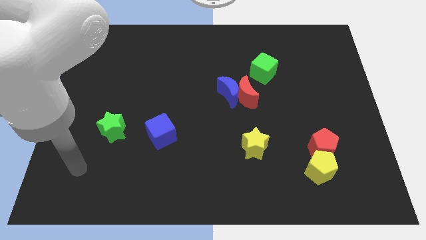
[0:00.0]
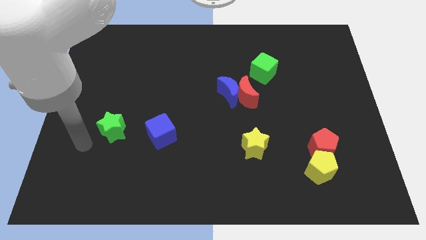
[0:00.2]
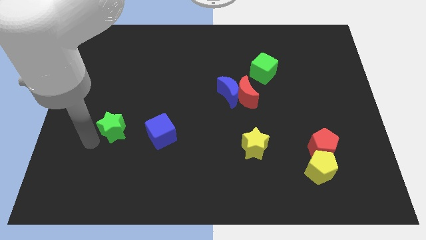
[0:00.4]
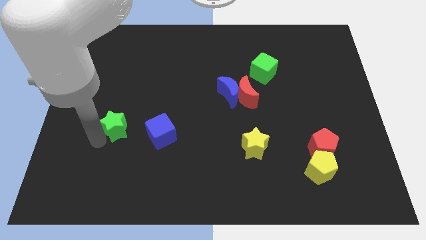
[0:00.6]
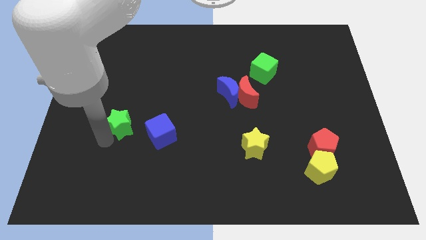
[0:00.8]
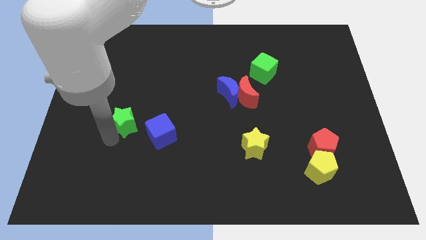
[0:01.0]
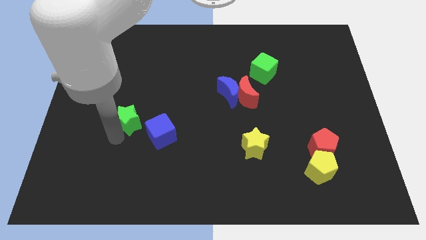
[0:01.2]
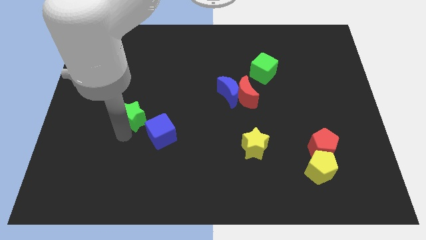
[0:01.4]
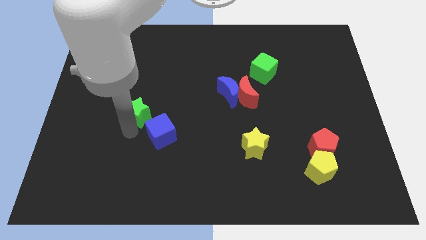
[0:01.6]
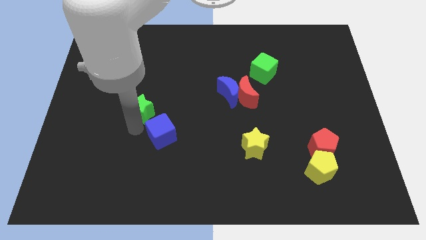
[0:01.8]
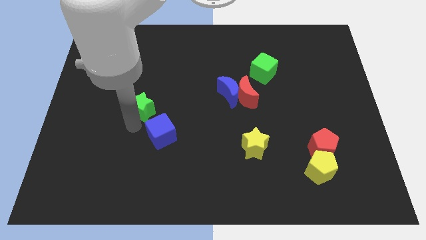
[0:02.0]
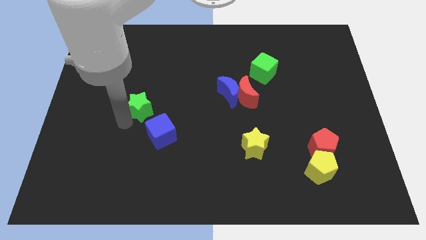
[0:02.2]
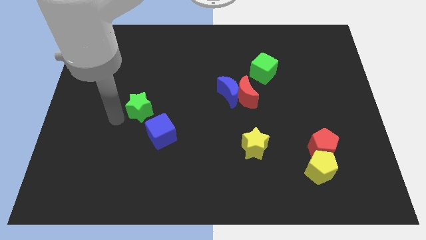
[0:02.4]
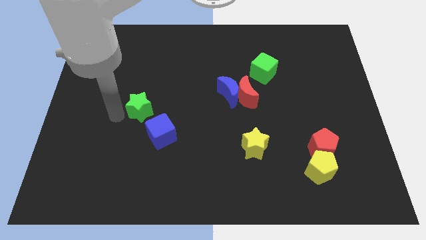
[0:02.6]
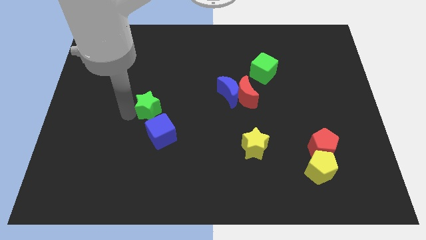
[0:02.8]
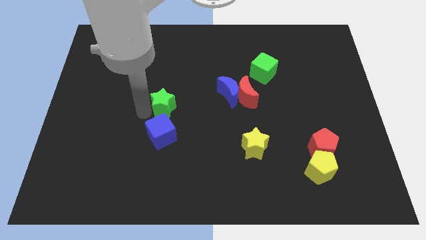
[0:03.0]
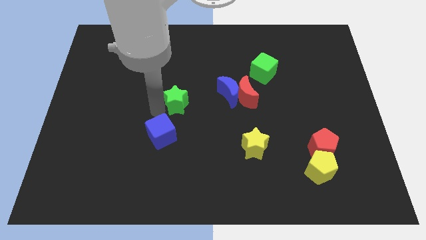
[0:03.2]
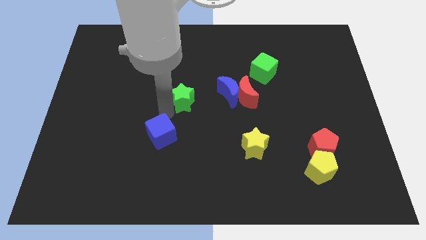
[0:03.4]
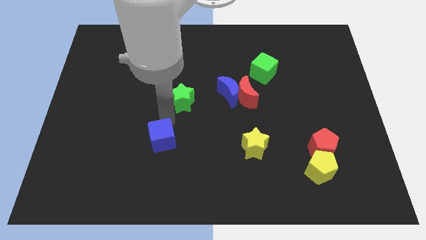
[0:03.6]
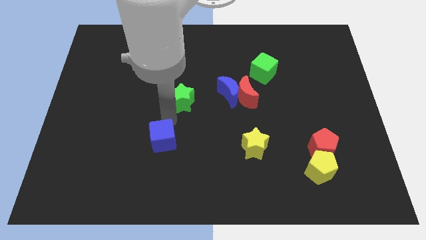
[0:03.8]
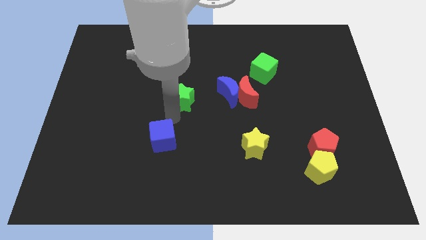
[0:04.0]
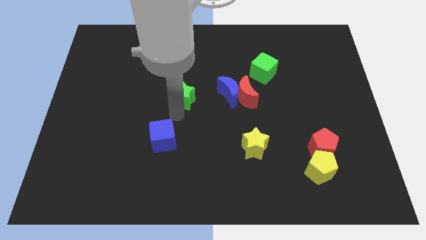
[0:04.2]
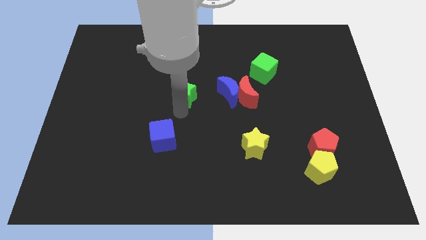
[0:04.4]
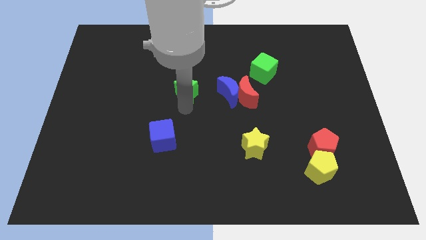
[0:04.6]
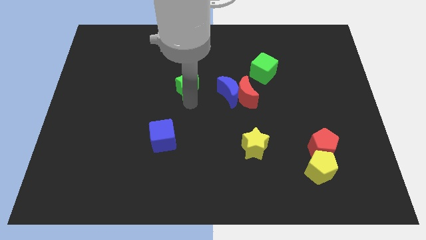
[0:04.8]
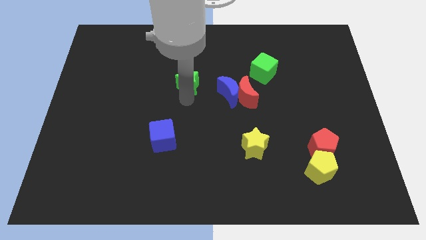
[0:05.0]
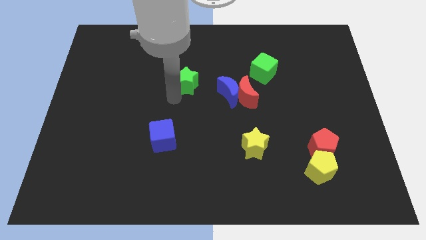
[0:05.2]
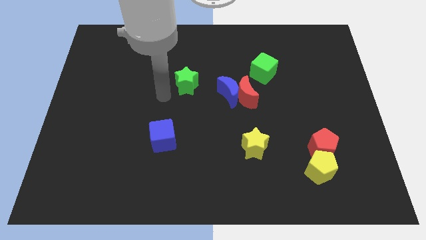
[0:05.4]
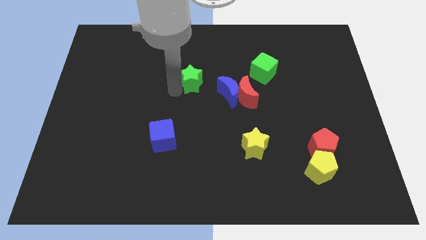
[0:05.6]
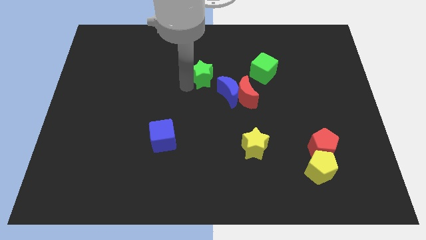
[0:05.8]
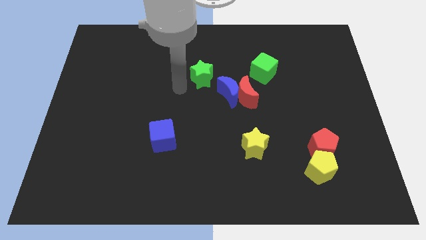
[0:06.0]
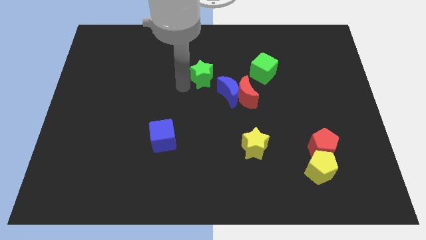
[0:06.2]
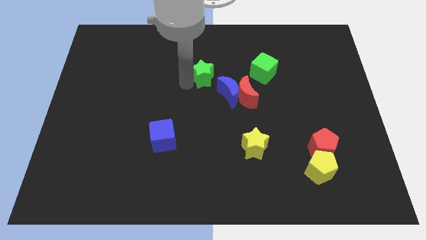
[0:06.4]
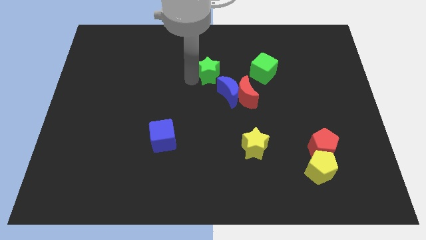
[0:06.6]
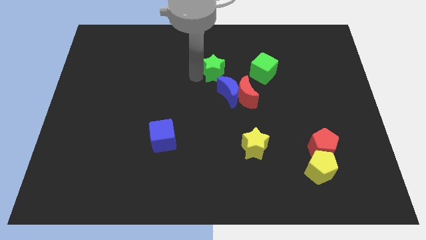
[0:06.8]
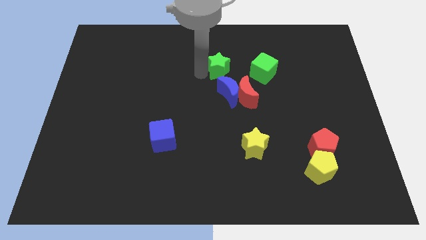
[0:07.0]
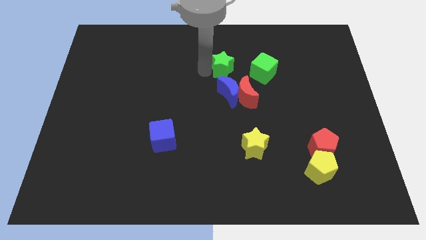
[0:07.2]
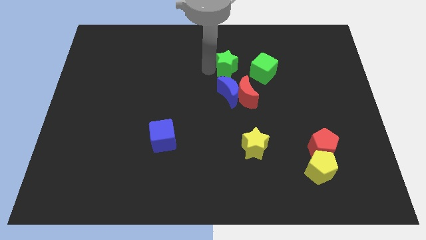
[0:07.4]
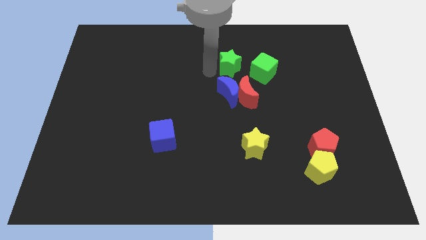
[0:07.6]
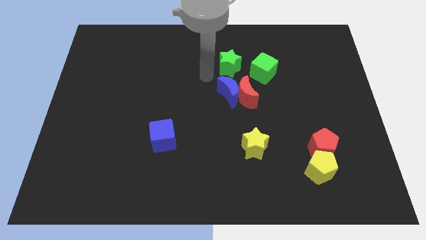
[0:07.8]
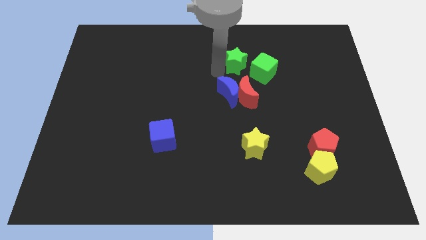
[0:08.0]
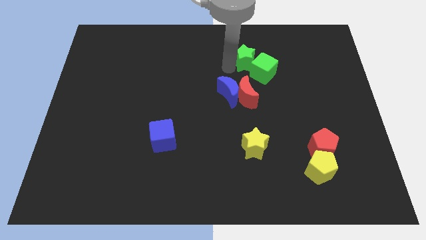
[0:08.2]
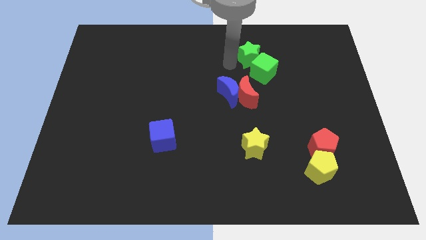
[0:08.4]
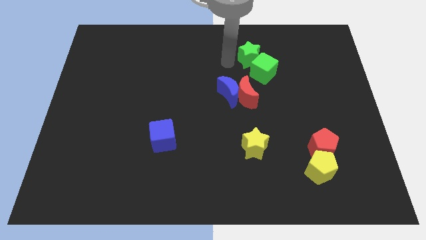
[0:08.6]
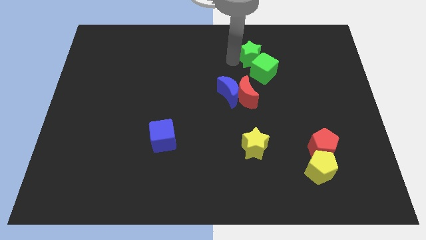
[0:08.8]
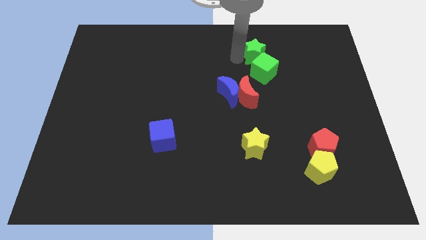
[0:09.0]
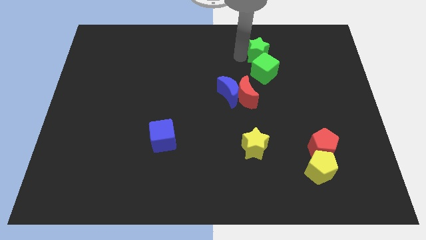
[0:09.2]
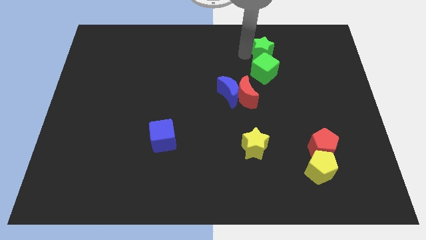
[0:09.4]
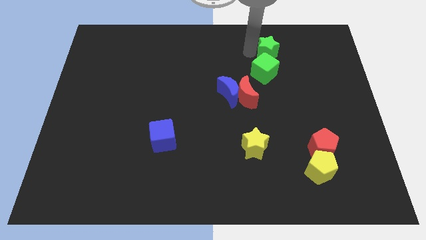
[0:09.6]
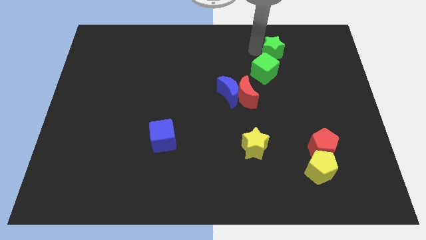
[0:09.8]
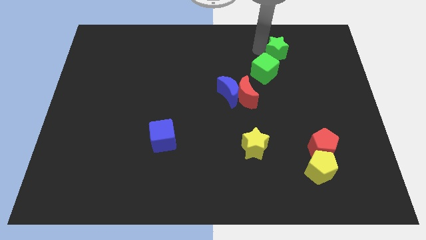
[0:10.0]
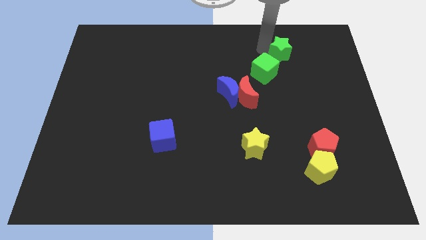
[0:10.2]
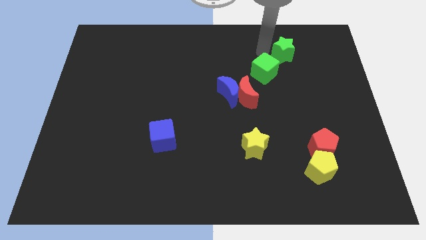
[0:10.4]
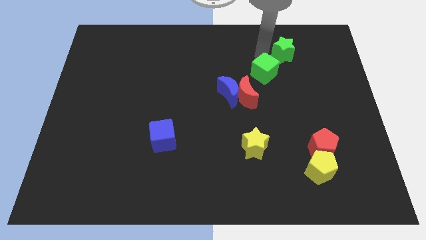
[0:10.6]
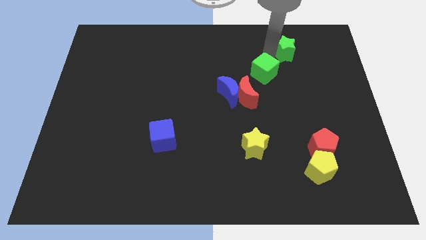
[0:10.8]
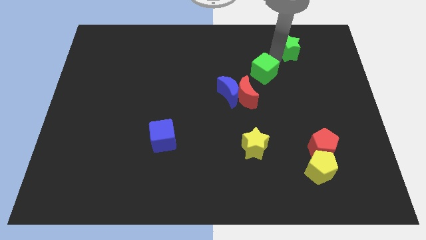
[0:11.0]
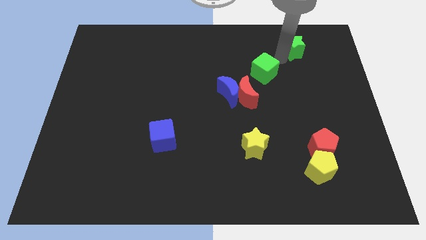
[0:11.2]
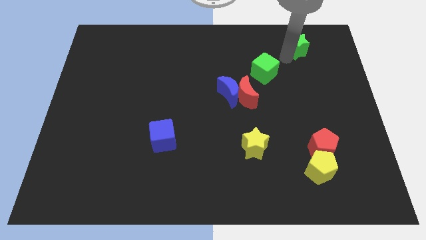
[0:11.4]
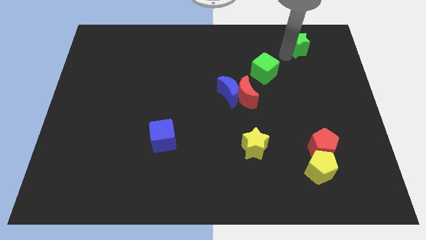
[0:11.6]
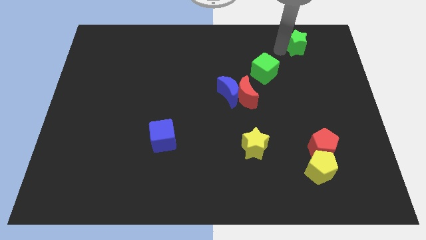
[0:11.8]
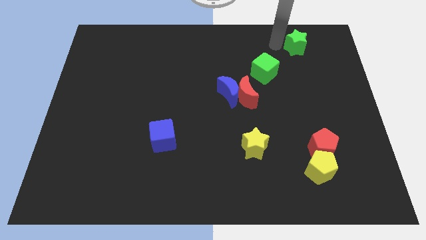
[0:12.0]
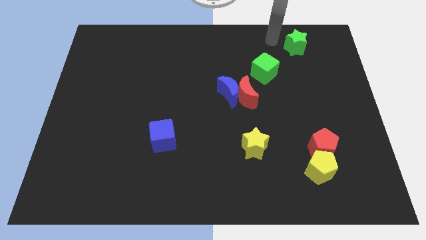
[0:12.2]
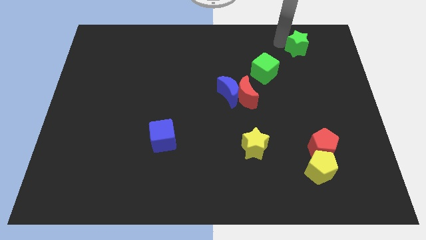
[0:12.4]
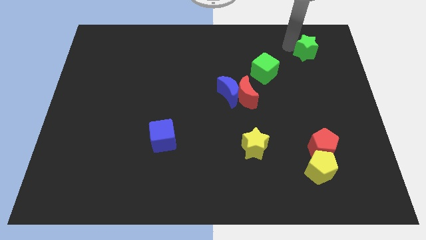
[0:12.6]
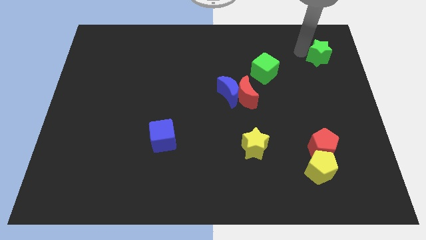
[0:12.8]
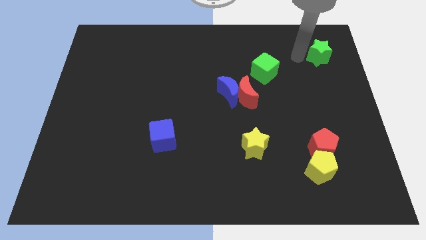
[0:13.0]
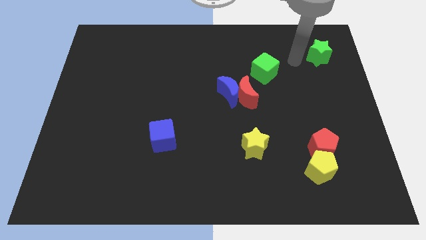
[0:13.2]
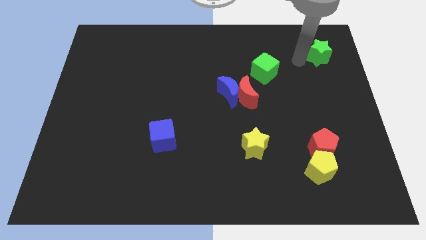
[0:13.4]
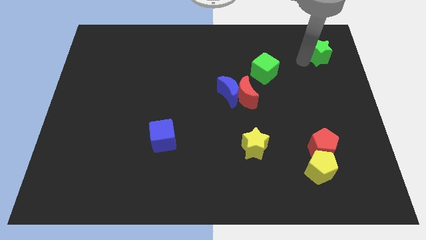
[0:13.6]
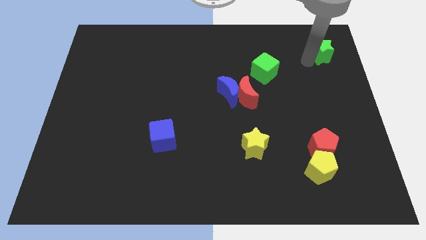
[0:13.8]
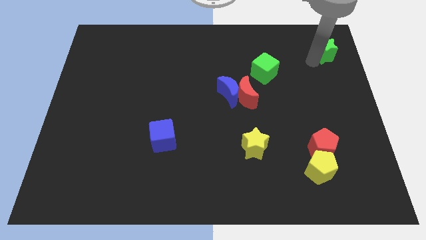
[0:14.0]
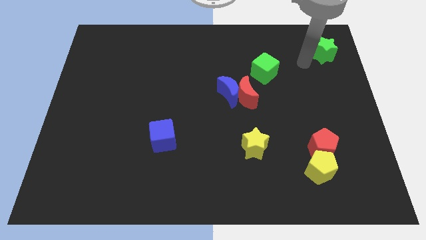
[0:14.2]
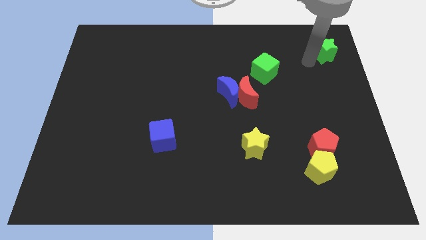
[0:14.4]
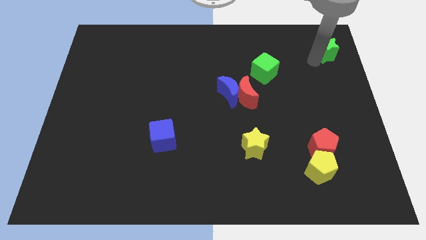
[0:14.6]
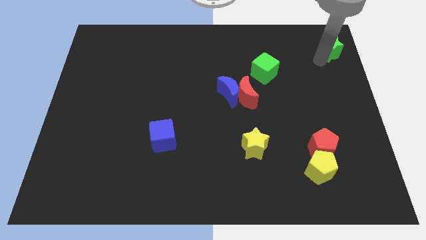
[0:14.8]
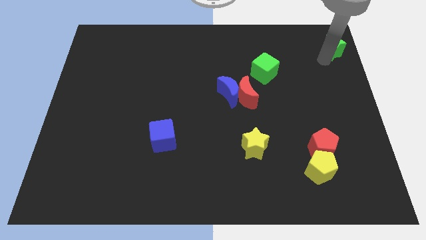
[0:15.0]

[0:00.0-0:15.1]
slide the green star to the upper right corner
